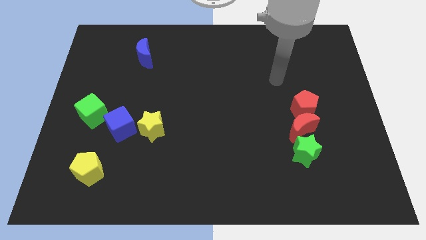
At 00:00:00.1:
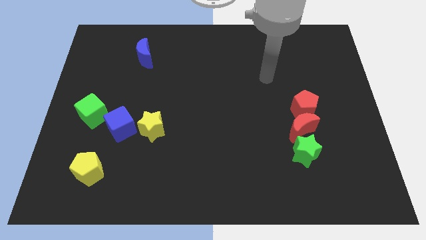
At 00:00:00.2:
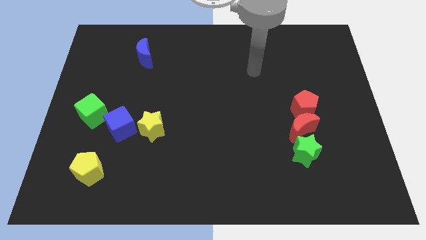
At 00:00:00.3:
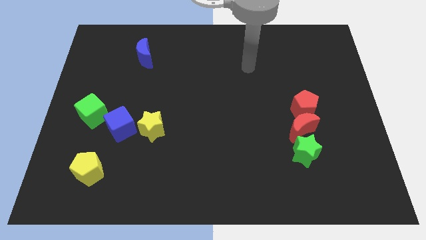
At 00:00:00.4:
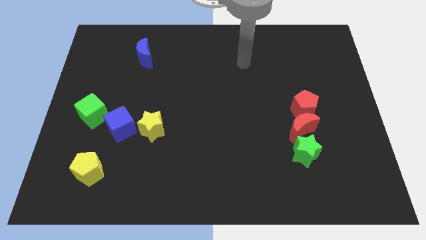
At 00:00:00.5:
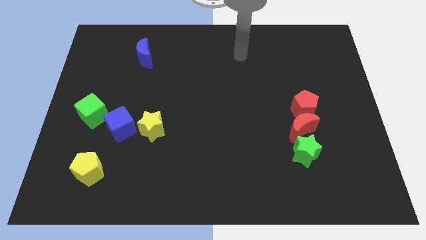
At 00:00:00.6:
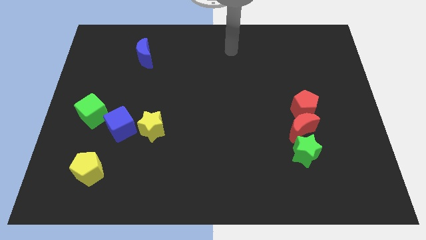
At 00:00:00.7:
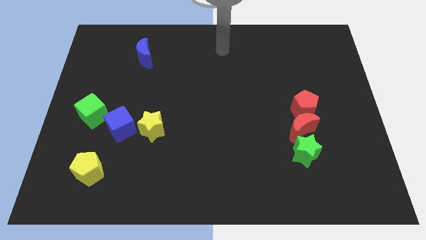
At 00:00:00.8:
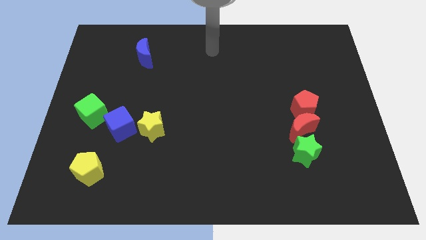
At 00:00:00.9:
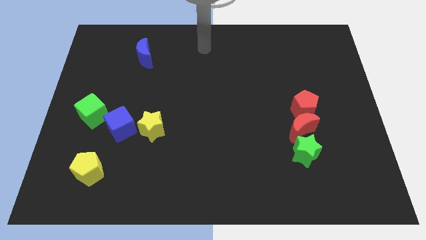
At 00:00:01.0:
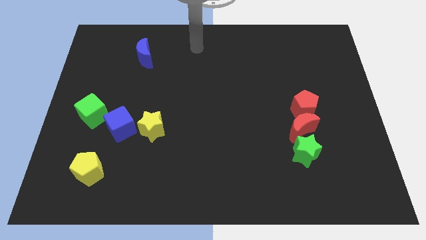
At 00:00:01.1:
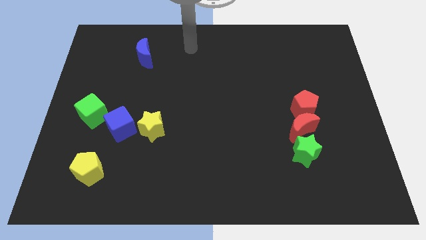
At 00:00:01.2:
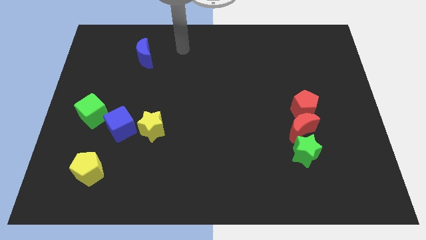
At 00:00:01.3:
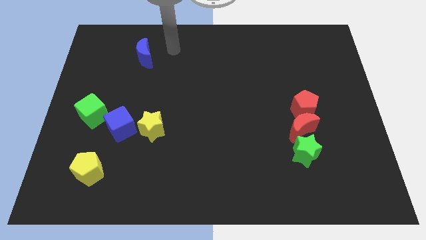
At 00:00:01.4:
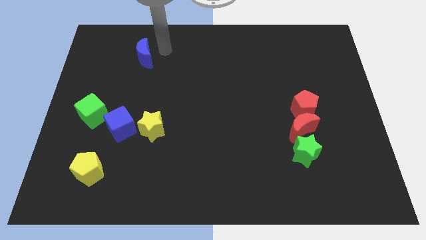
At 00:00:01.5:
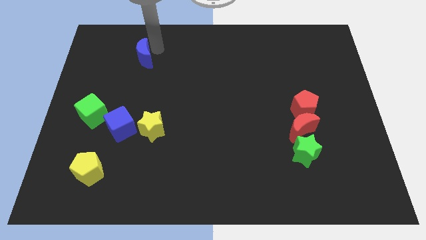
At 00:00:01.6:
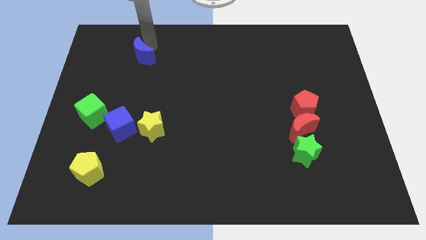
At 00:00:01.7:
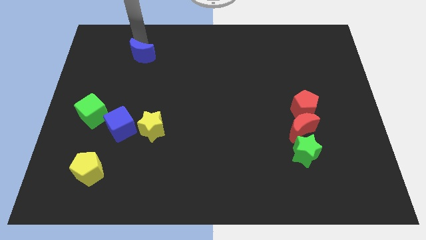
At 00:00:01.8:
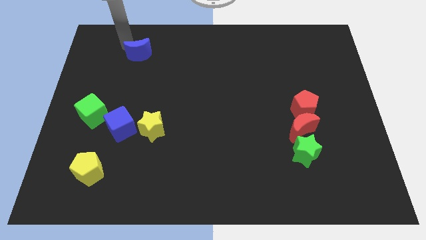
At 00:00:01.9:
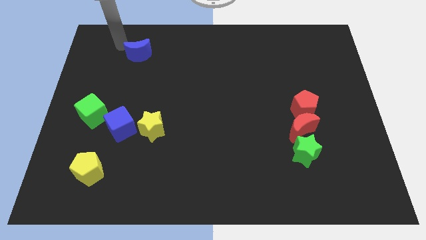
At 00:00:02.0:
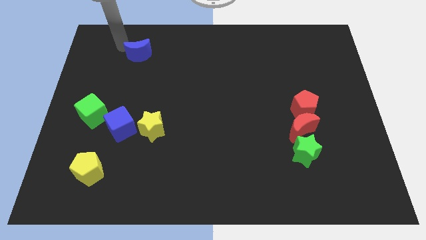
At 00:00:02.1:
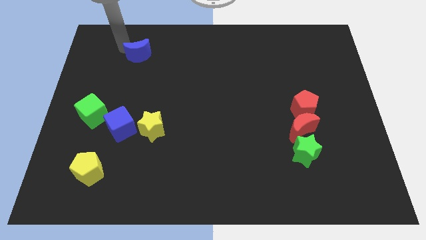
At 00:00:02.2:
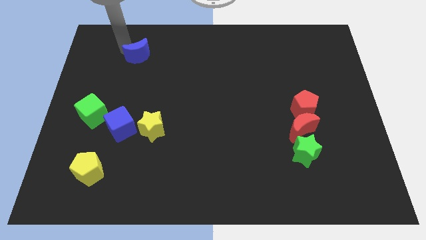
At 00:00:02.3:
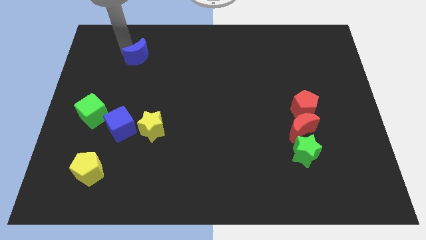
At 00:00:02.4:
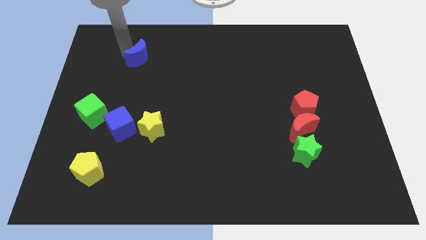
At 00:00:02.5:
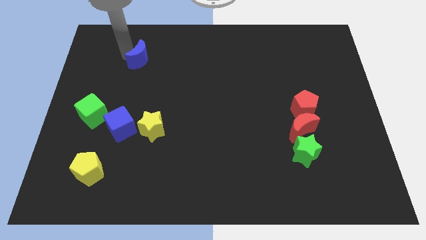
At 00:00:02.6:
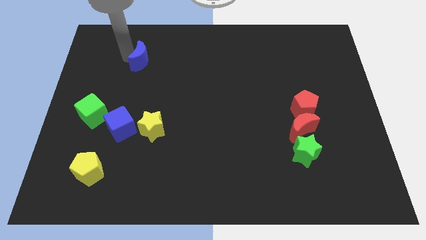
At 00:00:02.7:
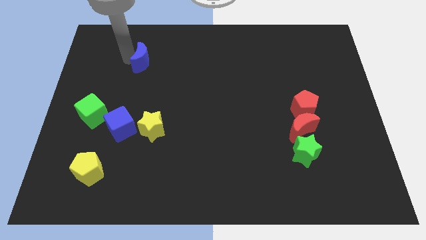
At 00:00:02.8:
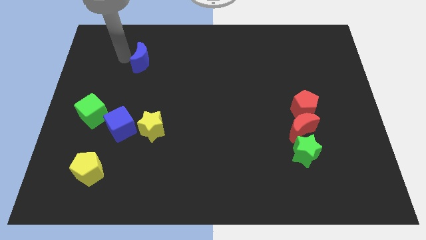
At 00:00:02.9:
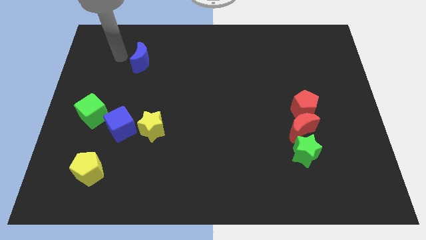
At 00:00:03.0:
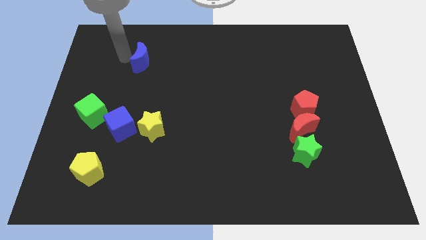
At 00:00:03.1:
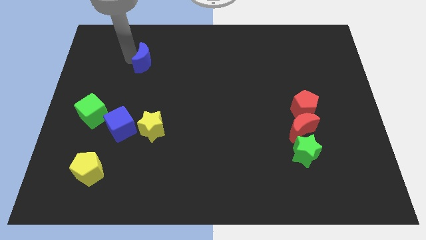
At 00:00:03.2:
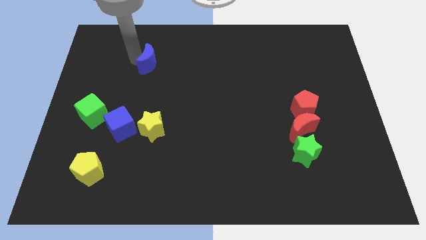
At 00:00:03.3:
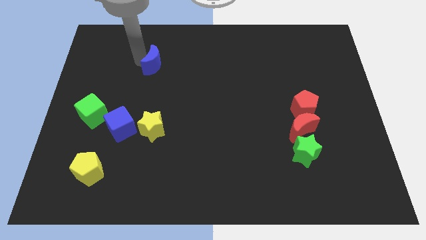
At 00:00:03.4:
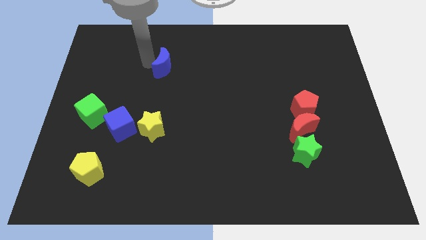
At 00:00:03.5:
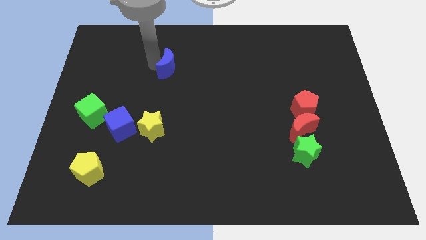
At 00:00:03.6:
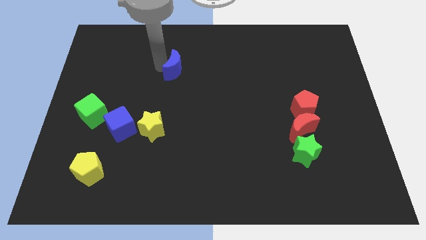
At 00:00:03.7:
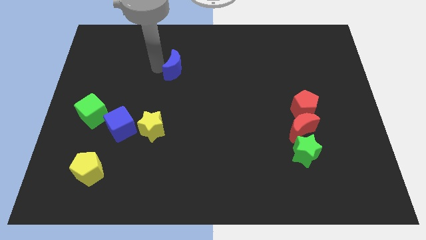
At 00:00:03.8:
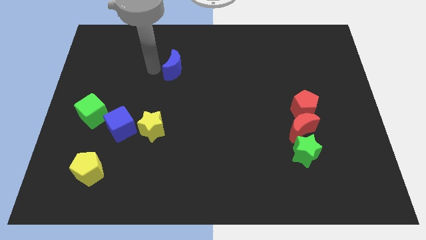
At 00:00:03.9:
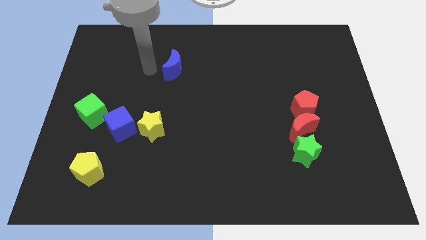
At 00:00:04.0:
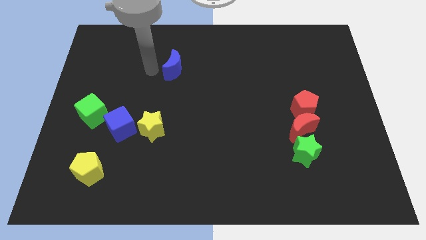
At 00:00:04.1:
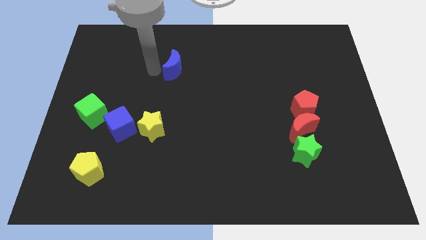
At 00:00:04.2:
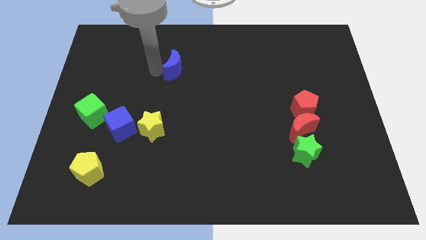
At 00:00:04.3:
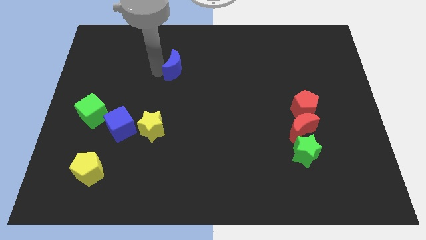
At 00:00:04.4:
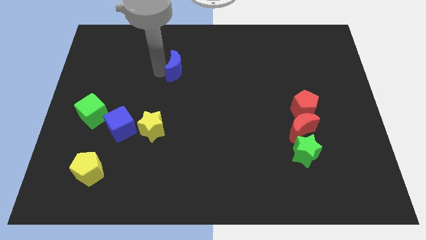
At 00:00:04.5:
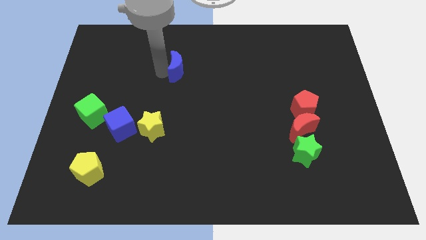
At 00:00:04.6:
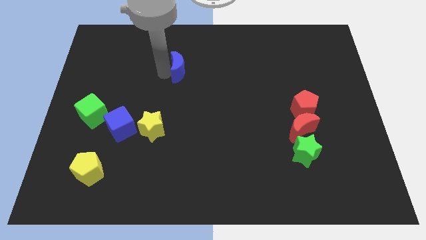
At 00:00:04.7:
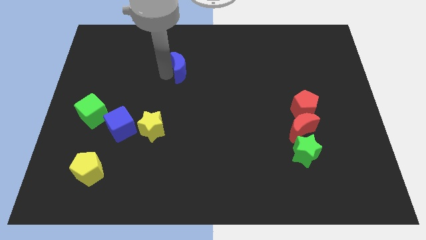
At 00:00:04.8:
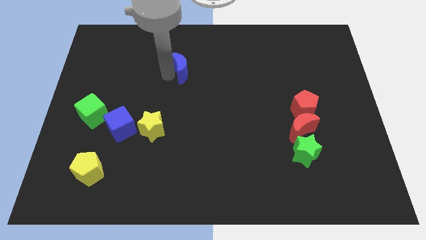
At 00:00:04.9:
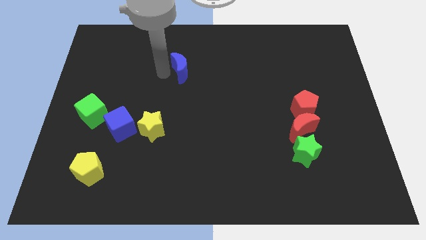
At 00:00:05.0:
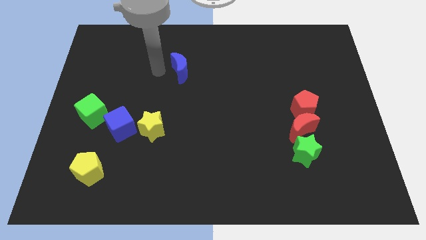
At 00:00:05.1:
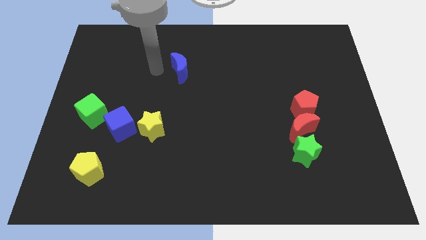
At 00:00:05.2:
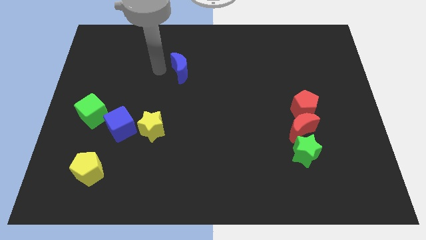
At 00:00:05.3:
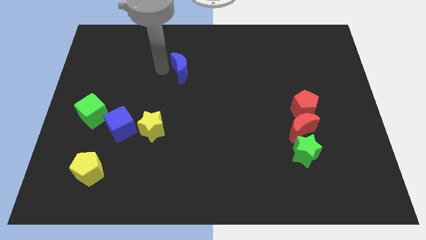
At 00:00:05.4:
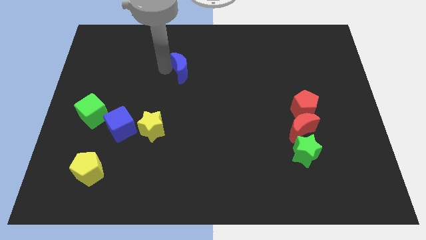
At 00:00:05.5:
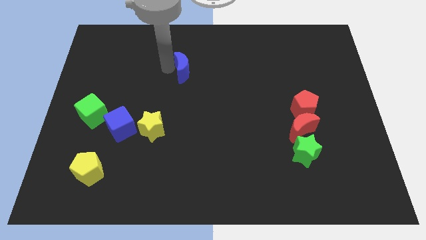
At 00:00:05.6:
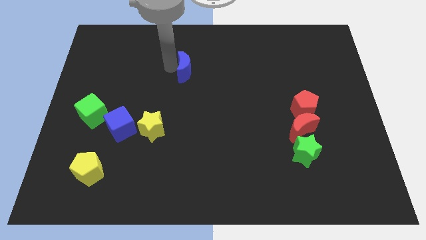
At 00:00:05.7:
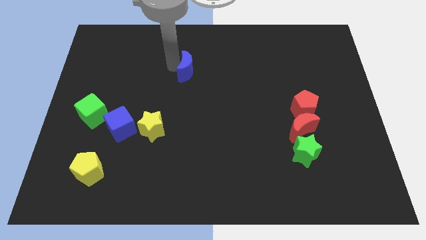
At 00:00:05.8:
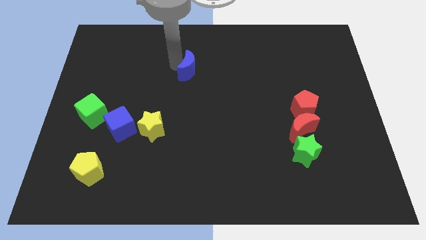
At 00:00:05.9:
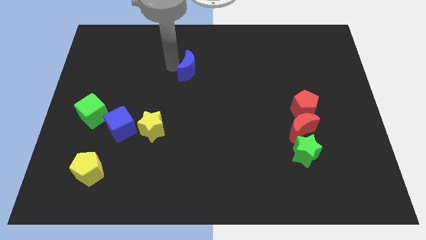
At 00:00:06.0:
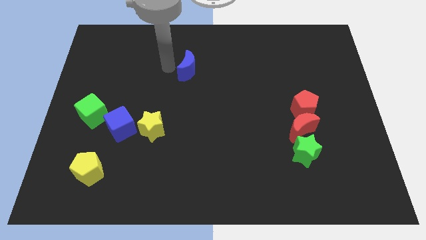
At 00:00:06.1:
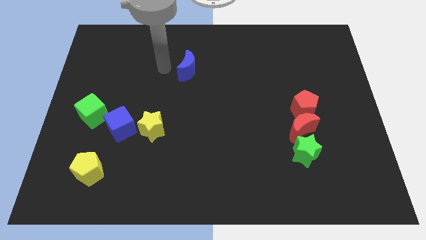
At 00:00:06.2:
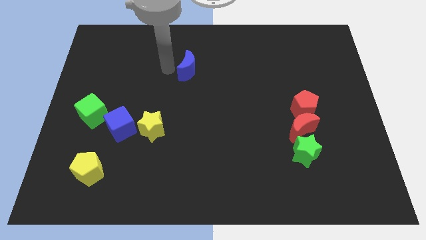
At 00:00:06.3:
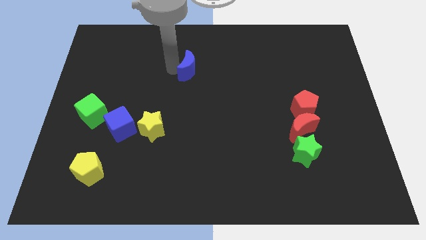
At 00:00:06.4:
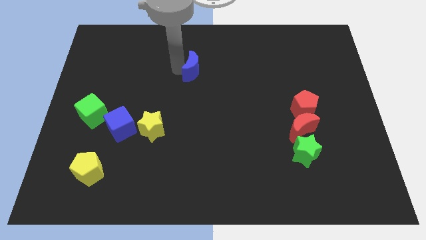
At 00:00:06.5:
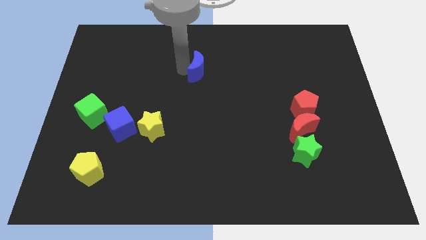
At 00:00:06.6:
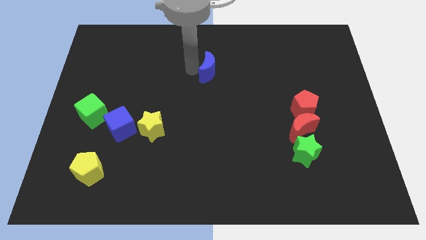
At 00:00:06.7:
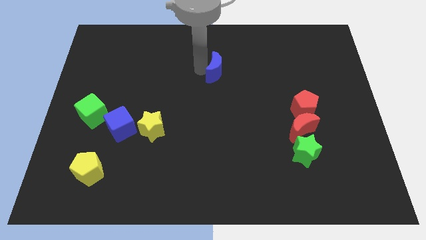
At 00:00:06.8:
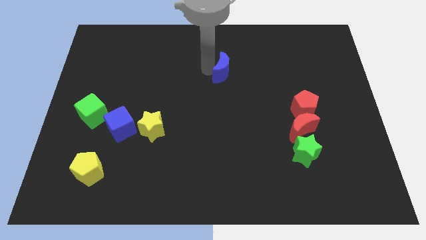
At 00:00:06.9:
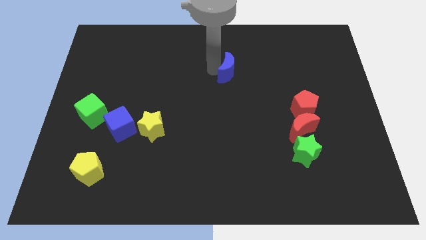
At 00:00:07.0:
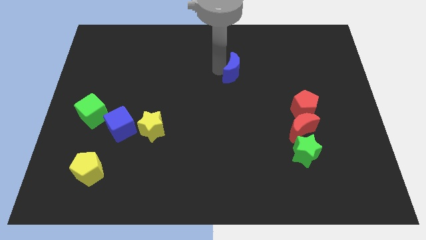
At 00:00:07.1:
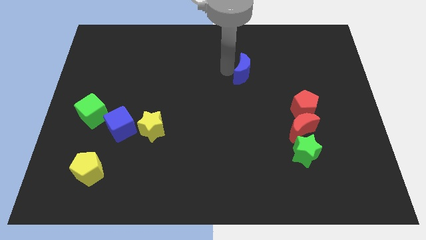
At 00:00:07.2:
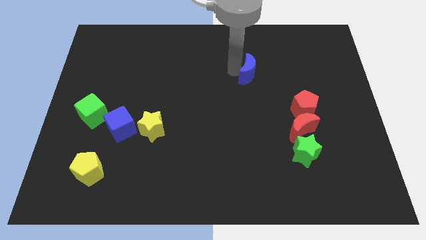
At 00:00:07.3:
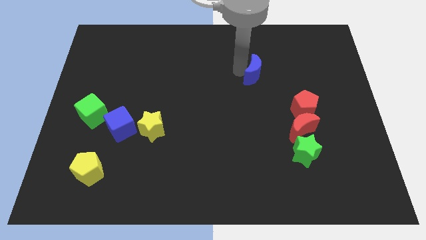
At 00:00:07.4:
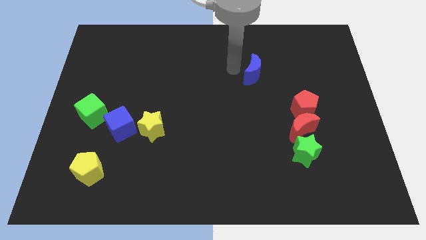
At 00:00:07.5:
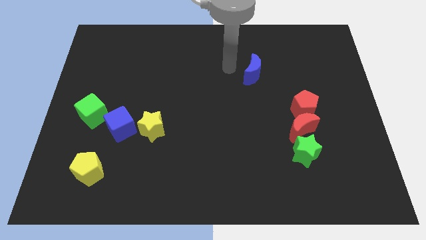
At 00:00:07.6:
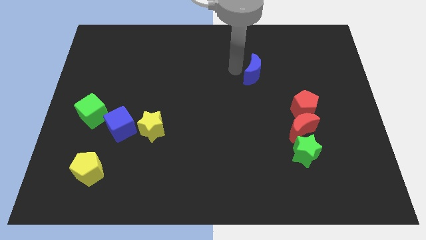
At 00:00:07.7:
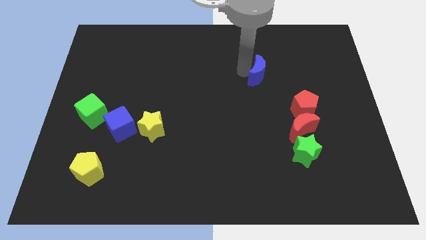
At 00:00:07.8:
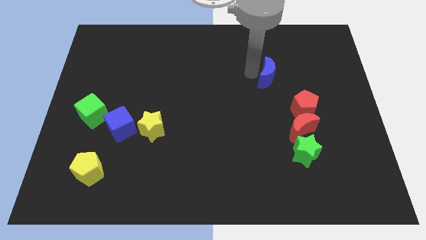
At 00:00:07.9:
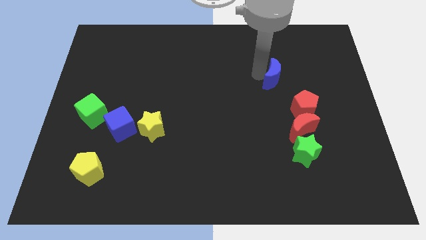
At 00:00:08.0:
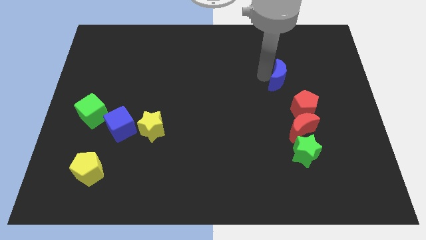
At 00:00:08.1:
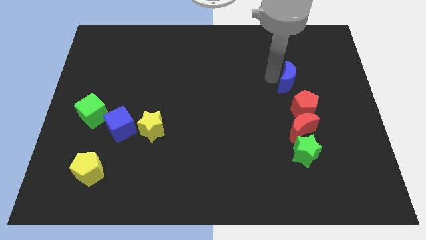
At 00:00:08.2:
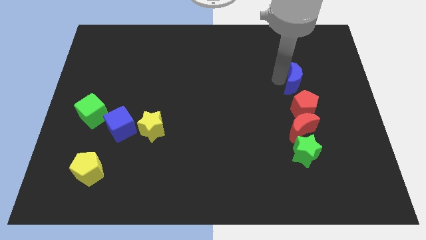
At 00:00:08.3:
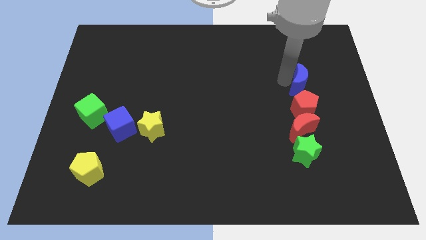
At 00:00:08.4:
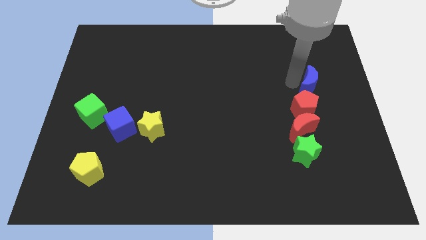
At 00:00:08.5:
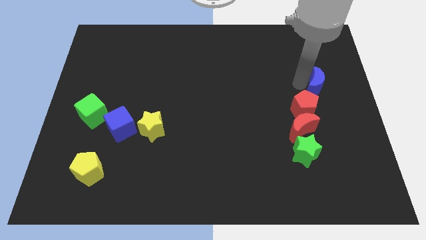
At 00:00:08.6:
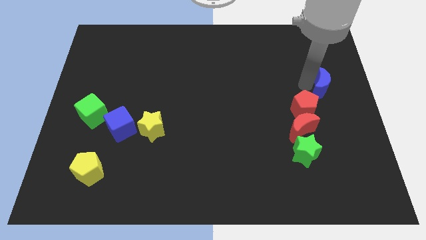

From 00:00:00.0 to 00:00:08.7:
slide the blue moon to the center right
